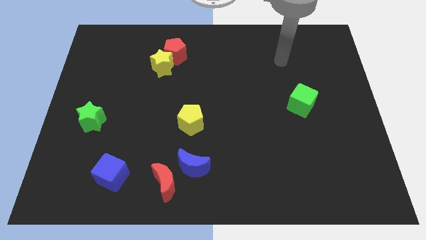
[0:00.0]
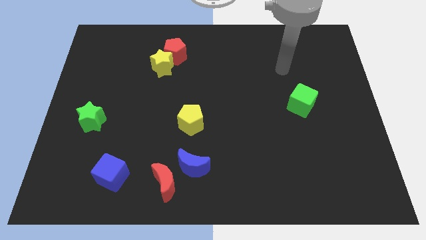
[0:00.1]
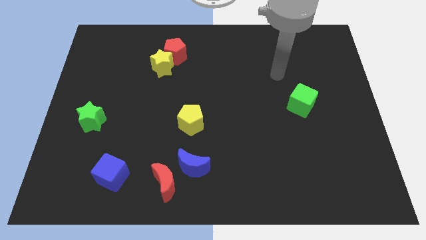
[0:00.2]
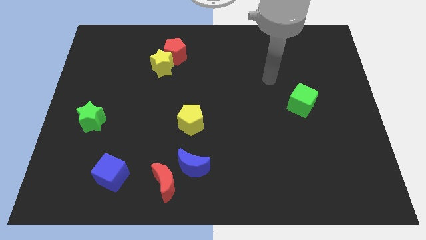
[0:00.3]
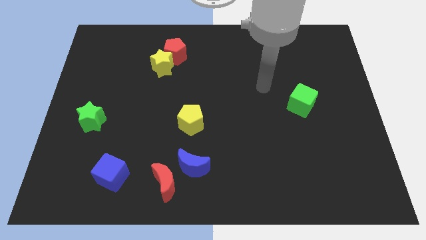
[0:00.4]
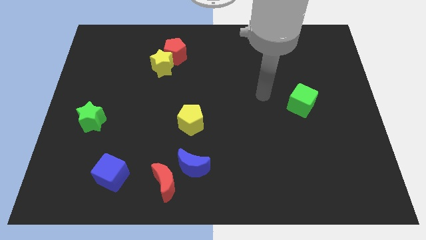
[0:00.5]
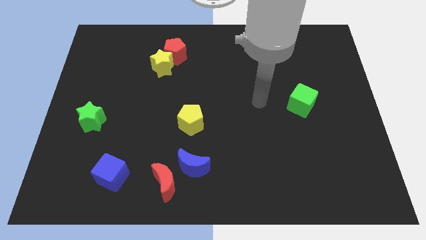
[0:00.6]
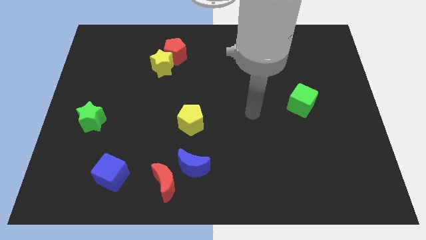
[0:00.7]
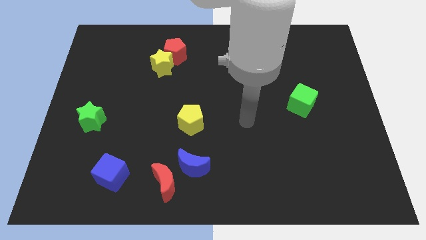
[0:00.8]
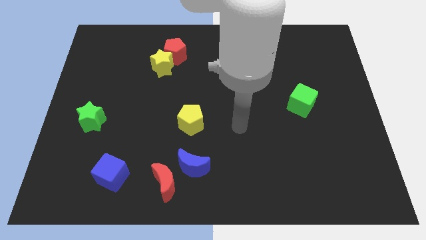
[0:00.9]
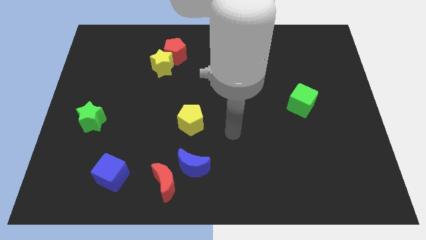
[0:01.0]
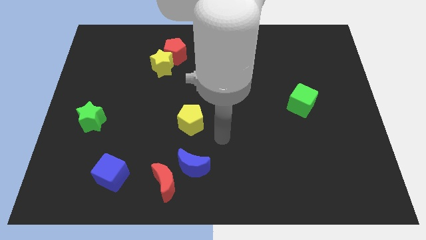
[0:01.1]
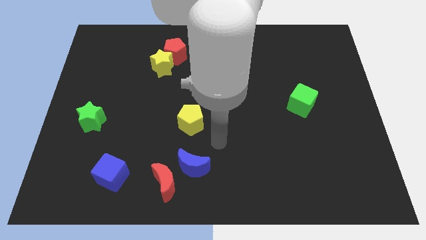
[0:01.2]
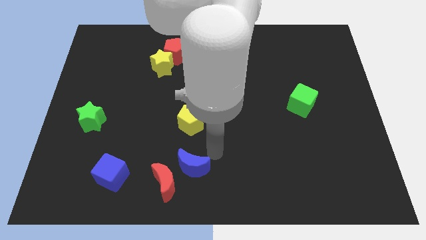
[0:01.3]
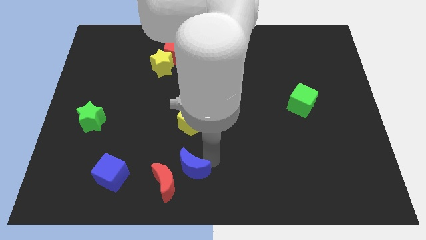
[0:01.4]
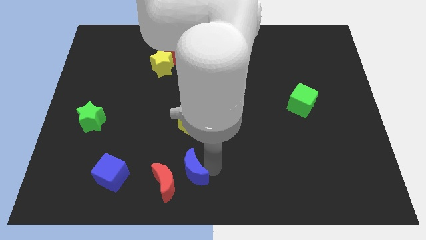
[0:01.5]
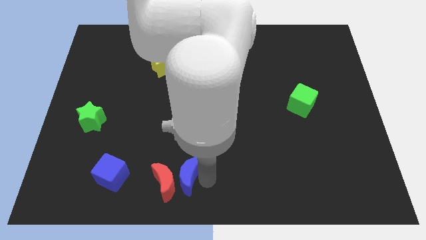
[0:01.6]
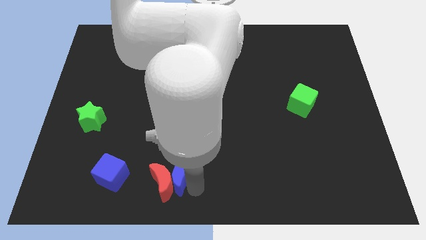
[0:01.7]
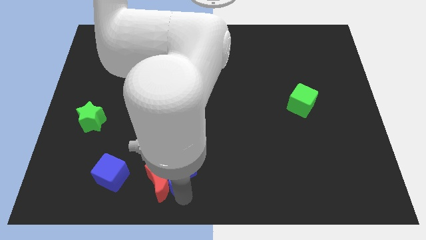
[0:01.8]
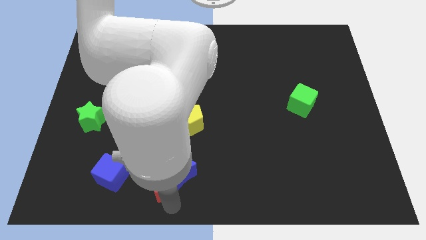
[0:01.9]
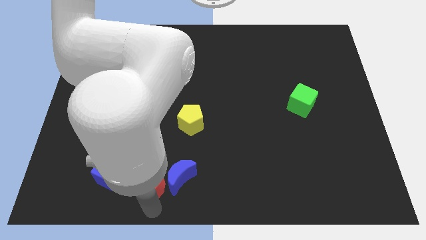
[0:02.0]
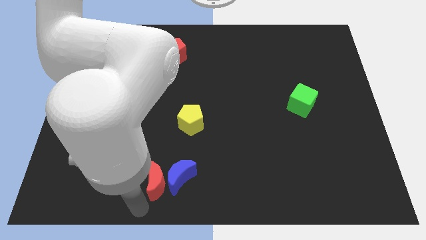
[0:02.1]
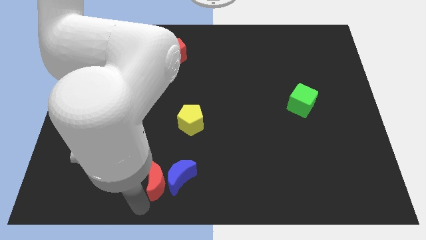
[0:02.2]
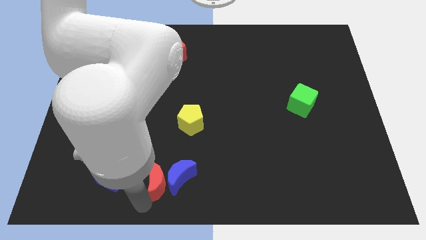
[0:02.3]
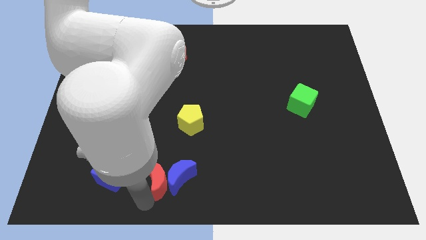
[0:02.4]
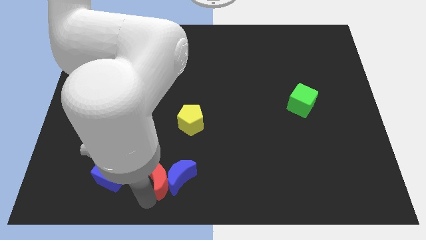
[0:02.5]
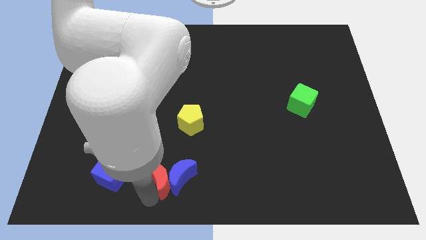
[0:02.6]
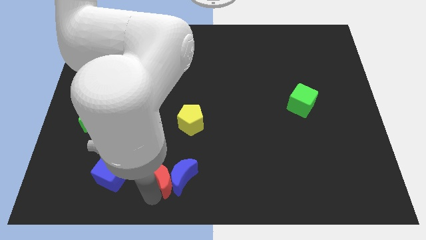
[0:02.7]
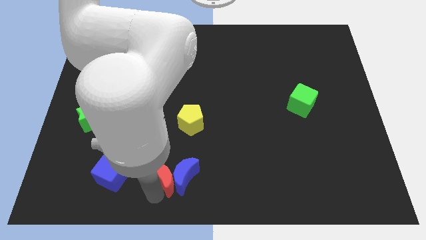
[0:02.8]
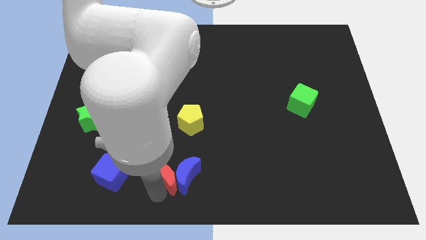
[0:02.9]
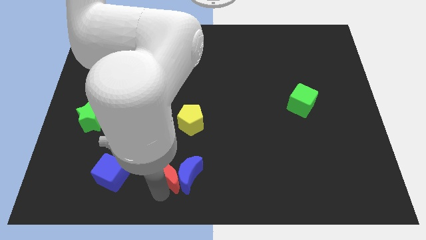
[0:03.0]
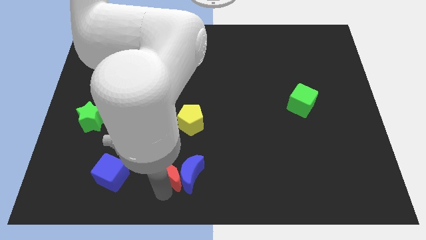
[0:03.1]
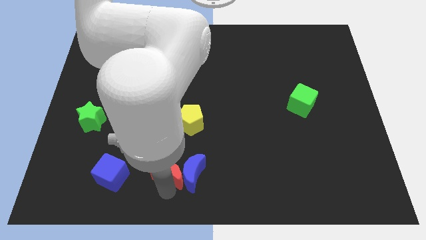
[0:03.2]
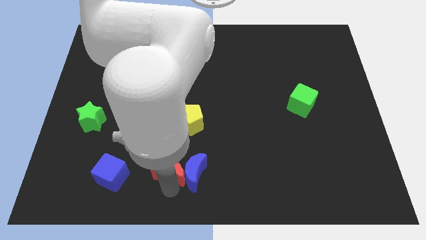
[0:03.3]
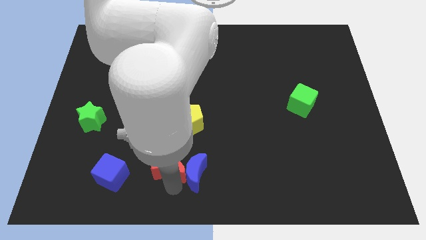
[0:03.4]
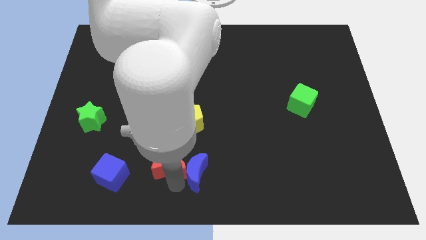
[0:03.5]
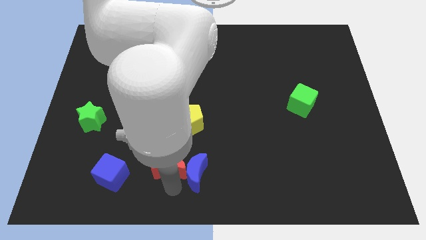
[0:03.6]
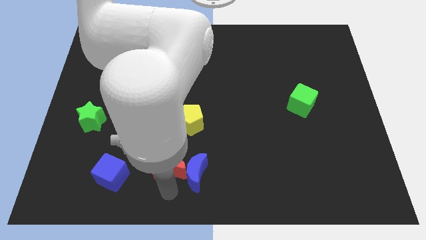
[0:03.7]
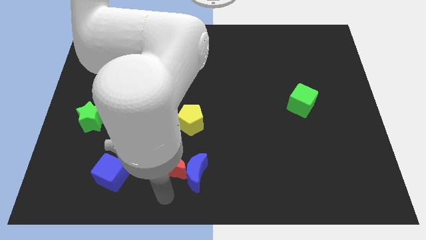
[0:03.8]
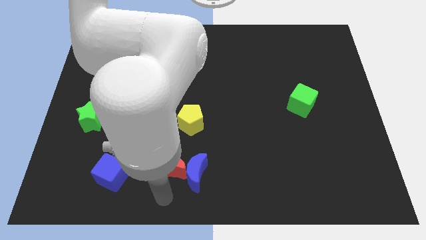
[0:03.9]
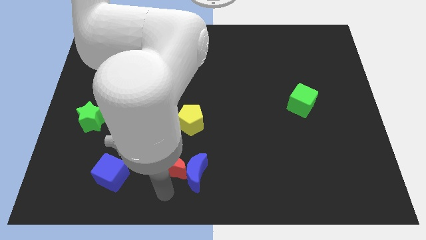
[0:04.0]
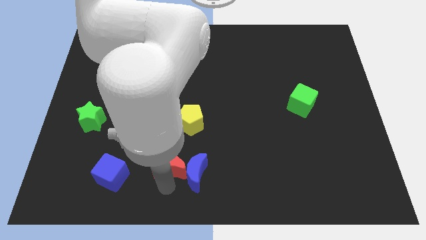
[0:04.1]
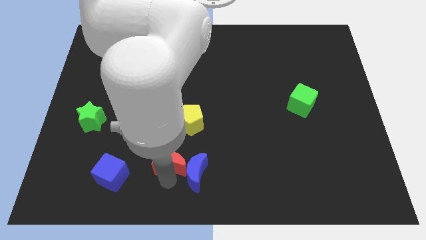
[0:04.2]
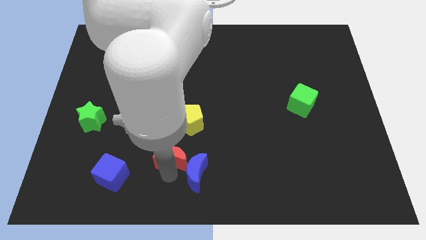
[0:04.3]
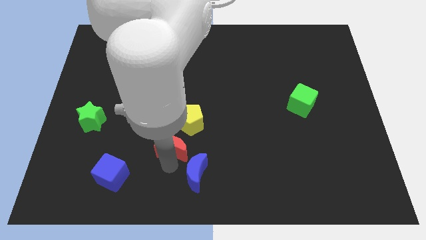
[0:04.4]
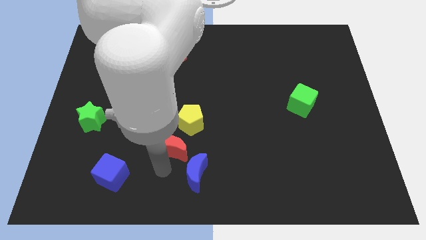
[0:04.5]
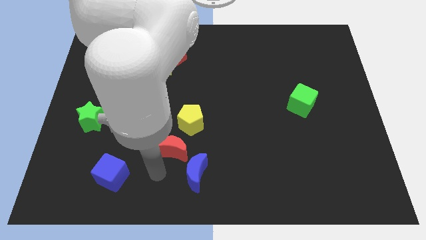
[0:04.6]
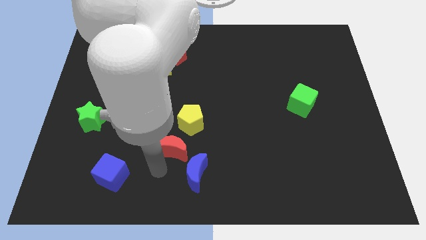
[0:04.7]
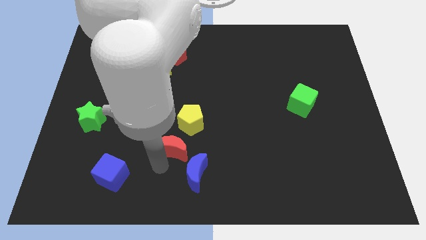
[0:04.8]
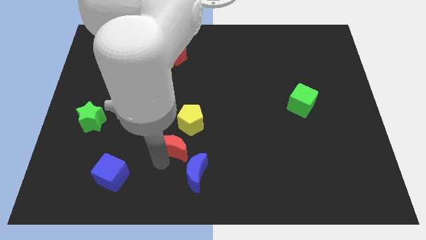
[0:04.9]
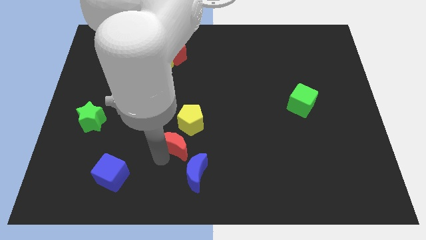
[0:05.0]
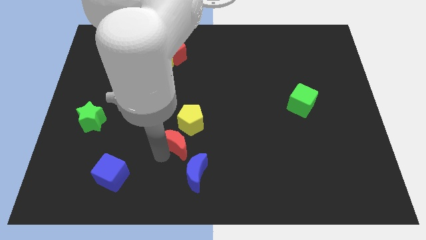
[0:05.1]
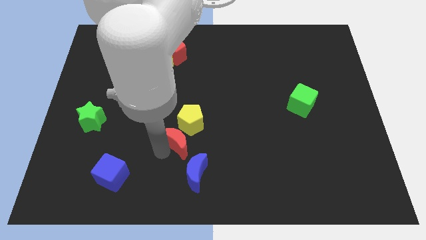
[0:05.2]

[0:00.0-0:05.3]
slide the red moon close to the yellow pentagon

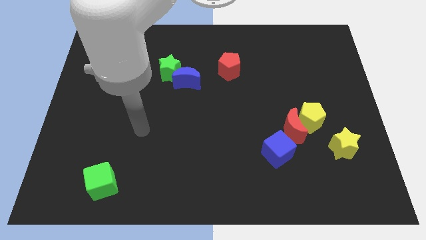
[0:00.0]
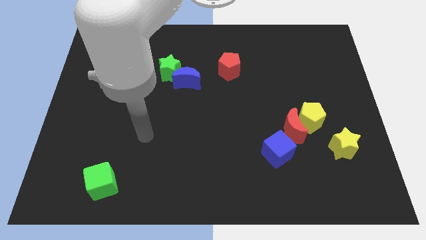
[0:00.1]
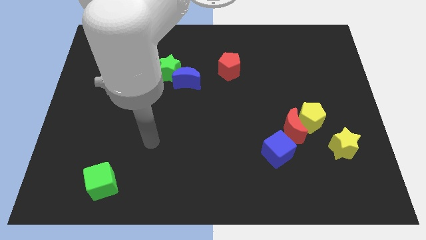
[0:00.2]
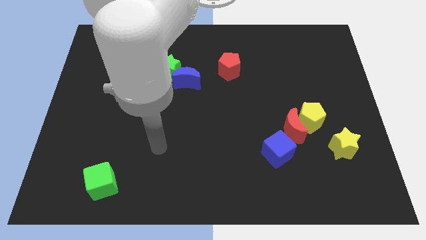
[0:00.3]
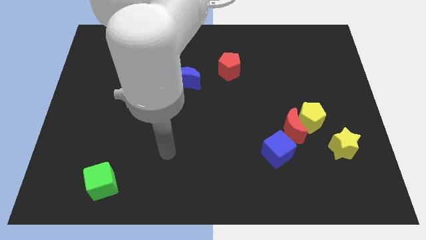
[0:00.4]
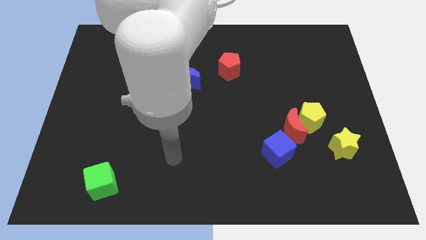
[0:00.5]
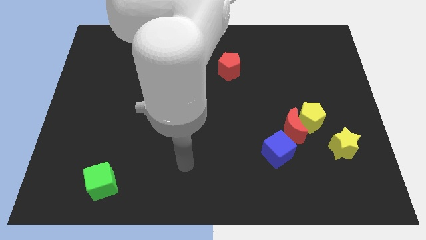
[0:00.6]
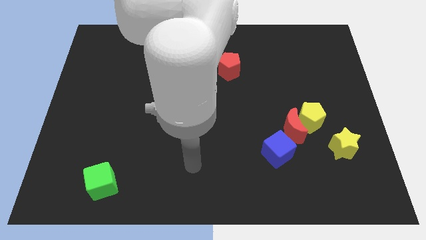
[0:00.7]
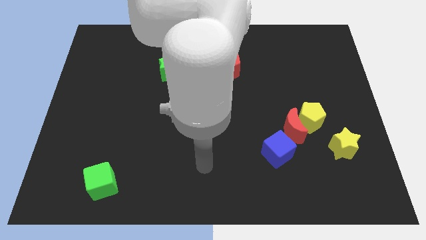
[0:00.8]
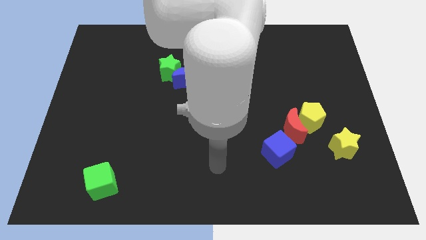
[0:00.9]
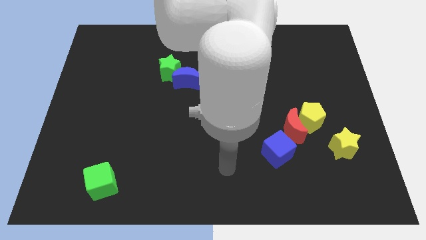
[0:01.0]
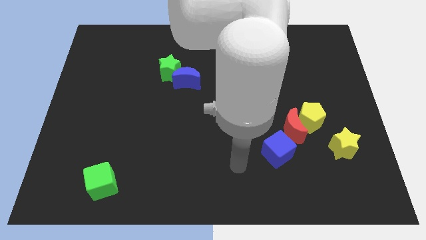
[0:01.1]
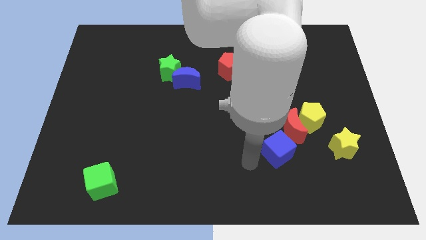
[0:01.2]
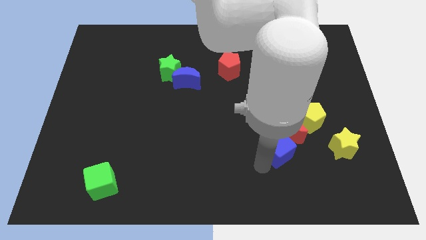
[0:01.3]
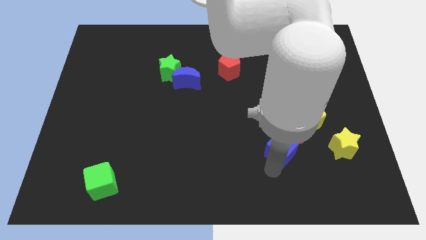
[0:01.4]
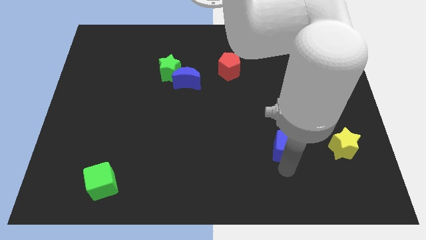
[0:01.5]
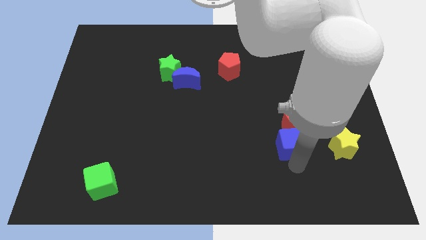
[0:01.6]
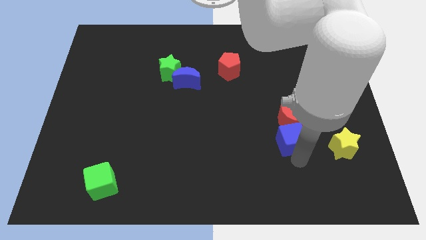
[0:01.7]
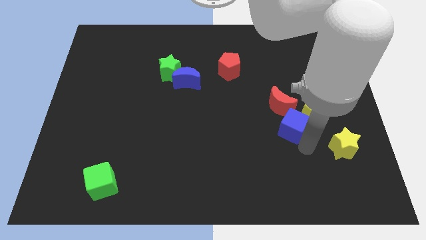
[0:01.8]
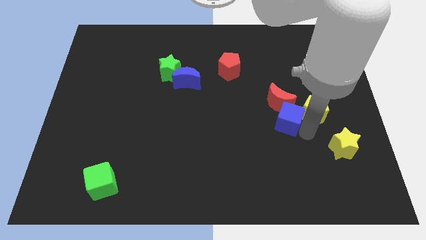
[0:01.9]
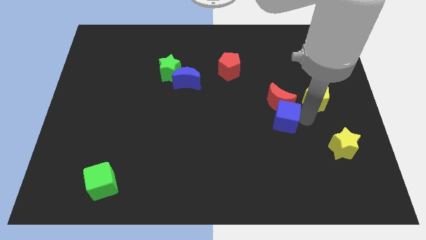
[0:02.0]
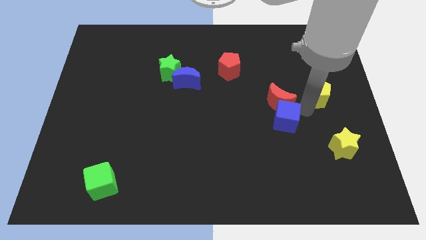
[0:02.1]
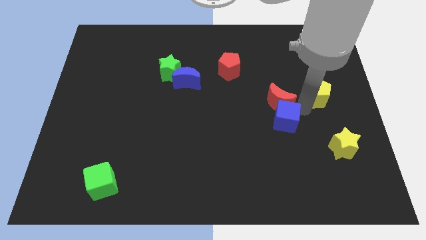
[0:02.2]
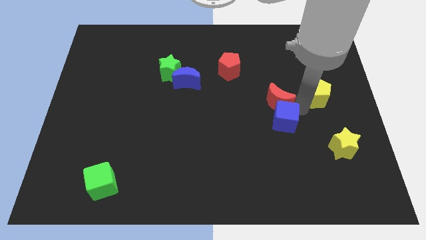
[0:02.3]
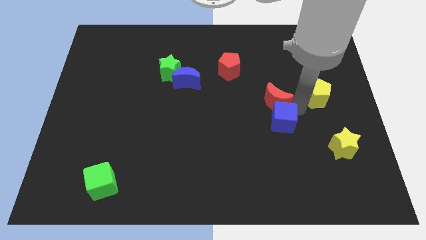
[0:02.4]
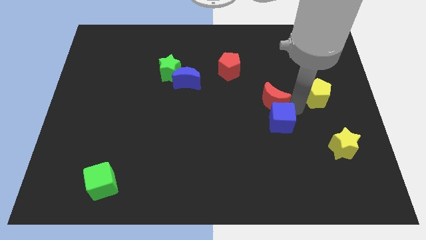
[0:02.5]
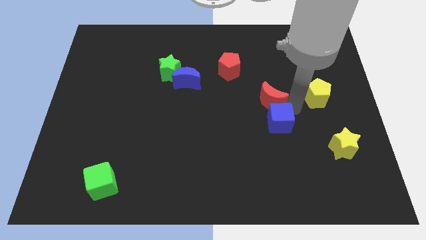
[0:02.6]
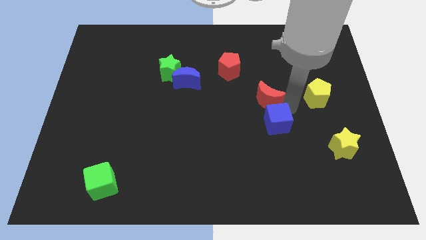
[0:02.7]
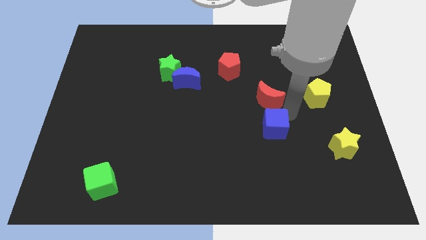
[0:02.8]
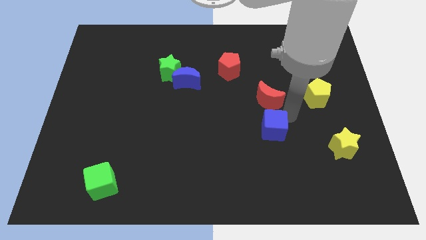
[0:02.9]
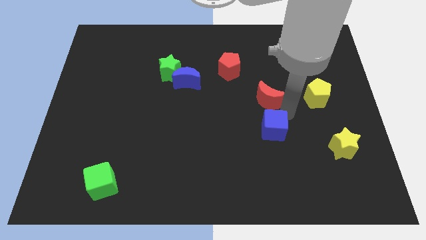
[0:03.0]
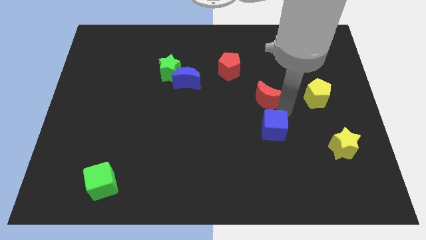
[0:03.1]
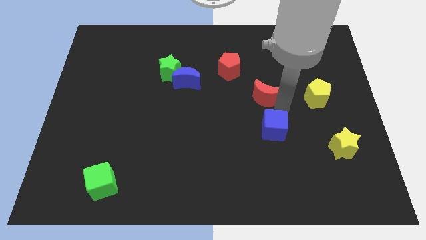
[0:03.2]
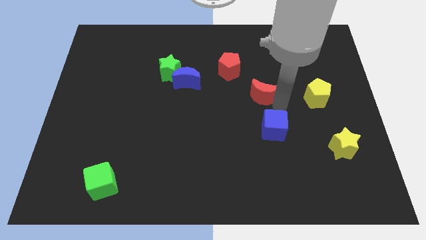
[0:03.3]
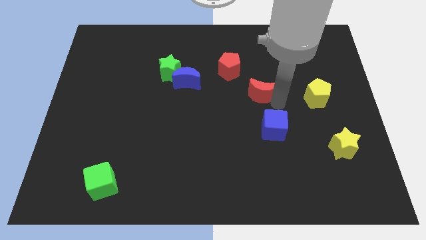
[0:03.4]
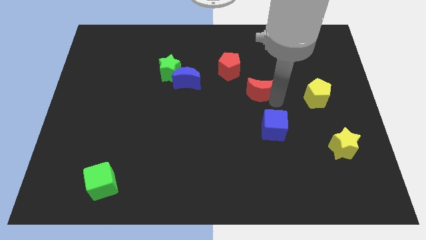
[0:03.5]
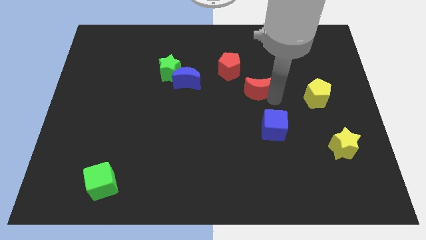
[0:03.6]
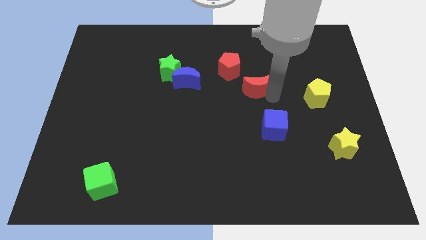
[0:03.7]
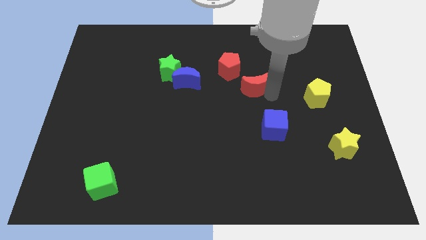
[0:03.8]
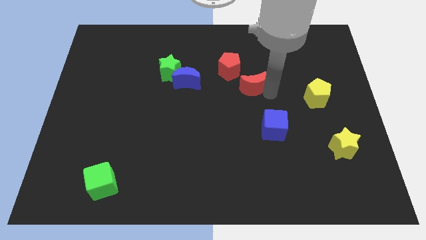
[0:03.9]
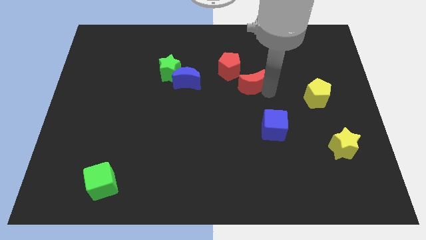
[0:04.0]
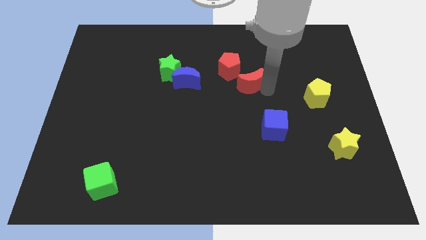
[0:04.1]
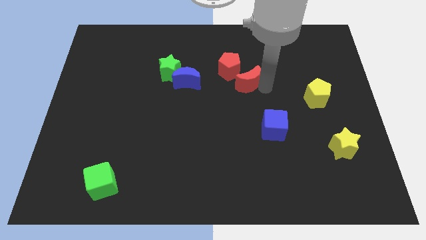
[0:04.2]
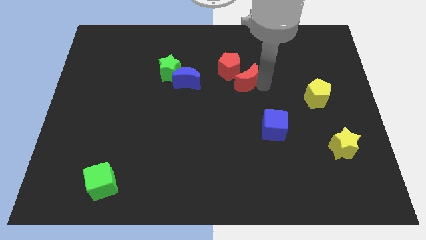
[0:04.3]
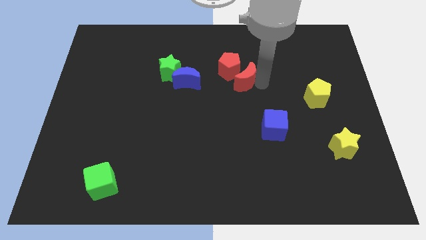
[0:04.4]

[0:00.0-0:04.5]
push the red moon towards the red pentagon
